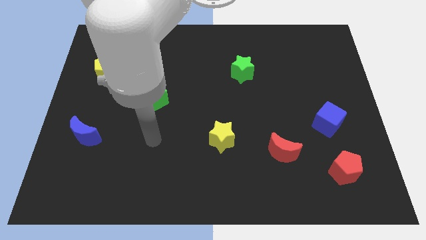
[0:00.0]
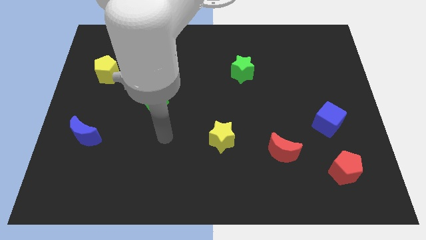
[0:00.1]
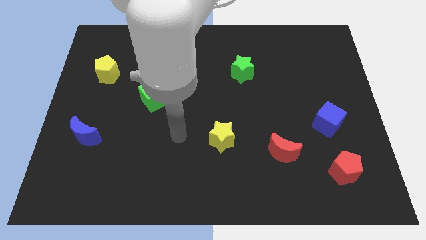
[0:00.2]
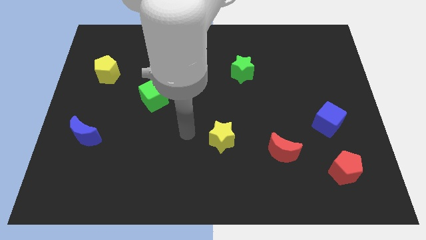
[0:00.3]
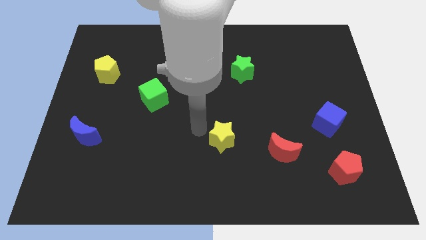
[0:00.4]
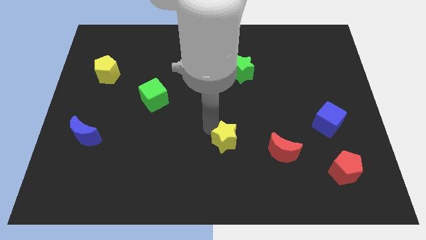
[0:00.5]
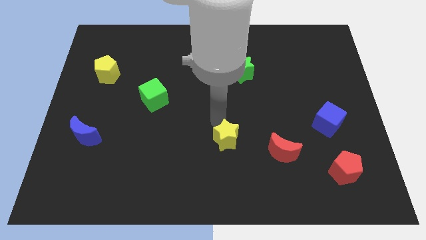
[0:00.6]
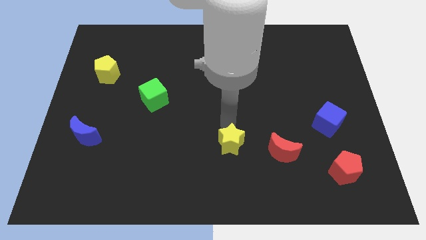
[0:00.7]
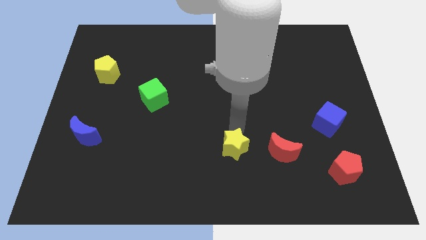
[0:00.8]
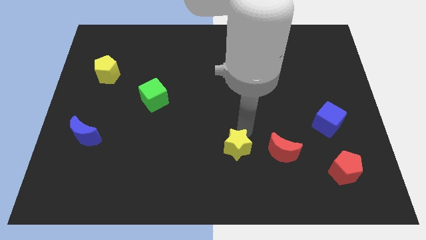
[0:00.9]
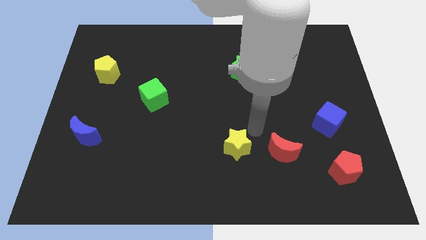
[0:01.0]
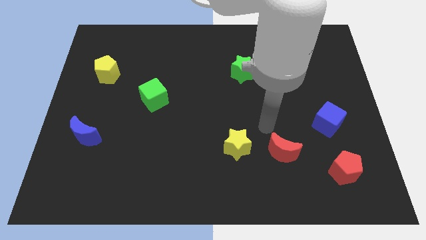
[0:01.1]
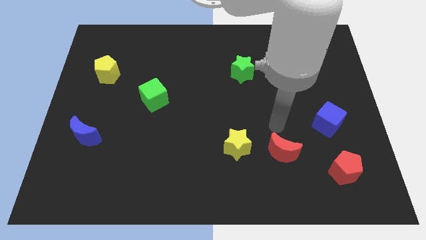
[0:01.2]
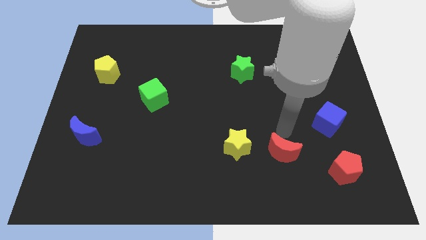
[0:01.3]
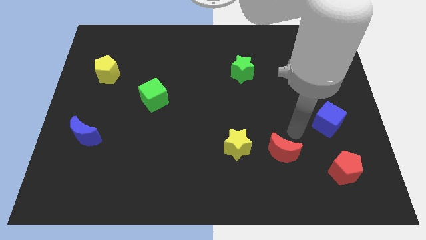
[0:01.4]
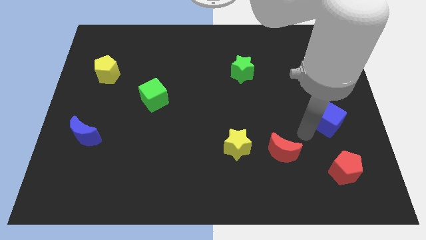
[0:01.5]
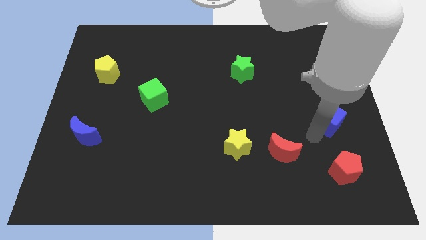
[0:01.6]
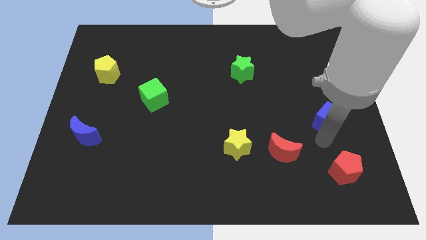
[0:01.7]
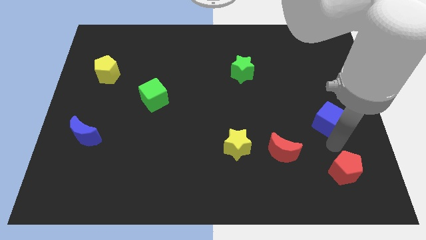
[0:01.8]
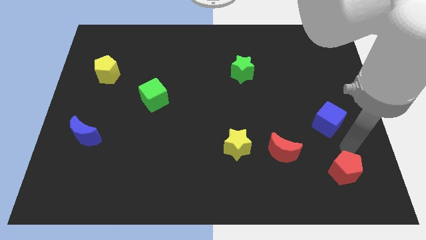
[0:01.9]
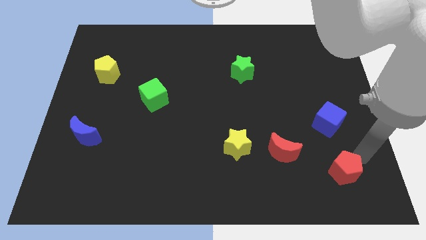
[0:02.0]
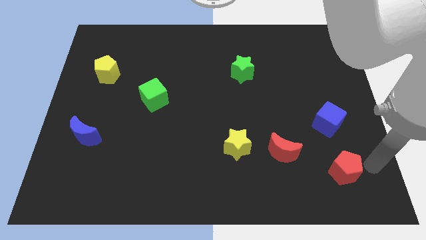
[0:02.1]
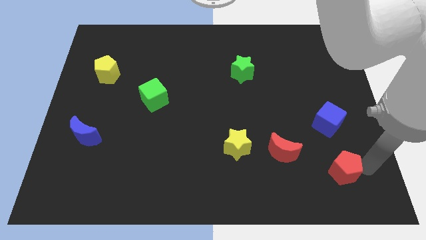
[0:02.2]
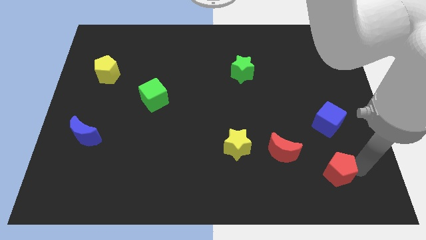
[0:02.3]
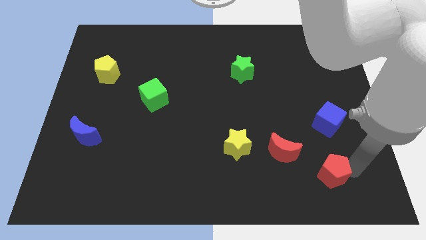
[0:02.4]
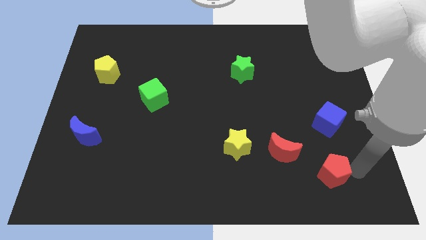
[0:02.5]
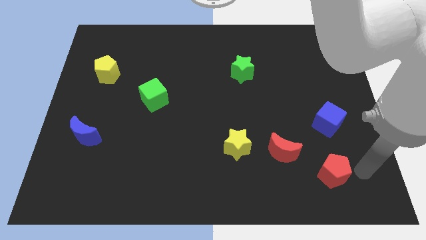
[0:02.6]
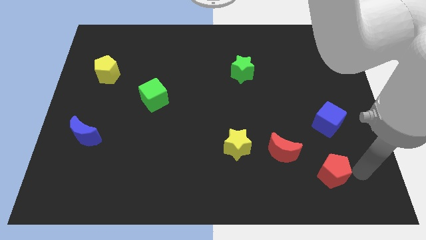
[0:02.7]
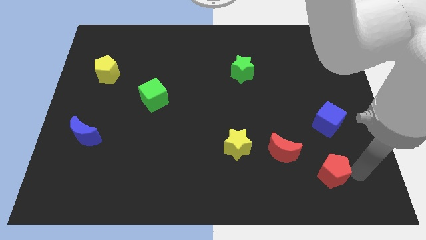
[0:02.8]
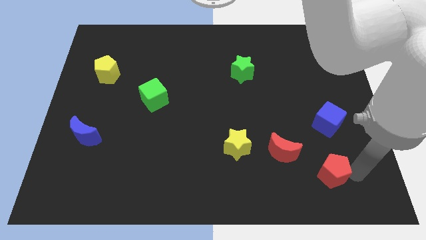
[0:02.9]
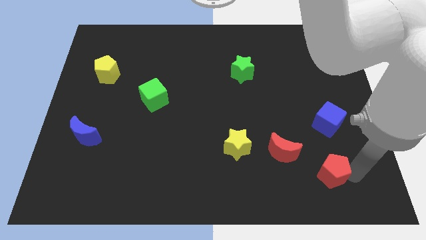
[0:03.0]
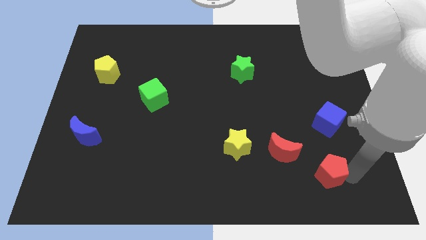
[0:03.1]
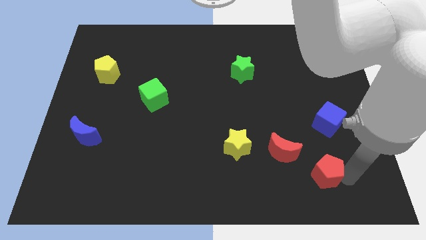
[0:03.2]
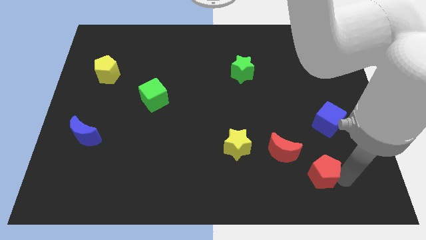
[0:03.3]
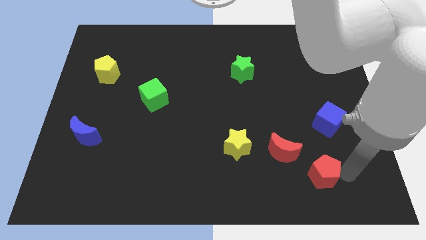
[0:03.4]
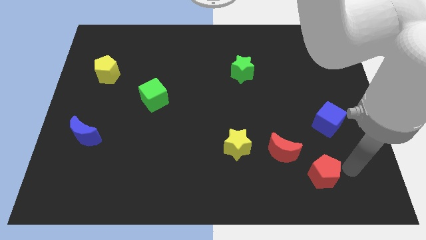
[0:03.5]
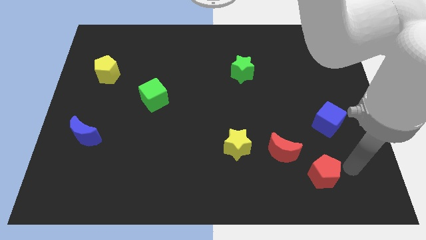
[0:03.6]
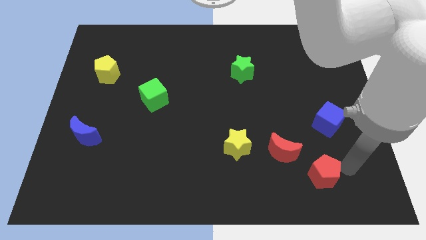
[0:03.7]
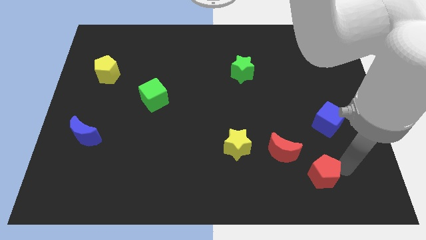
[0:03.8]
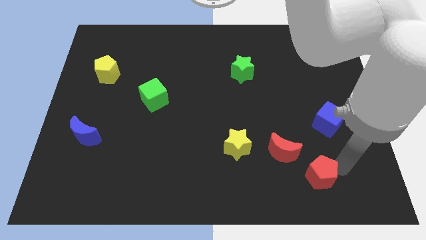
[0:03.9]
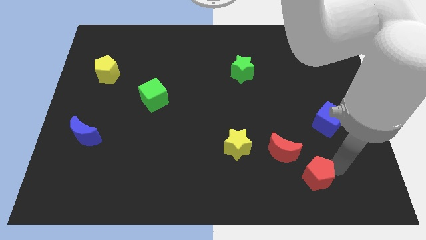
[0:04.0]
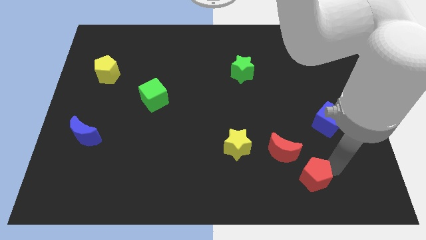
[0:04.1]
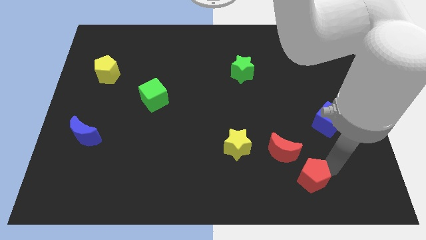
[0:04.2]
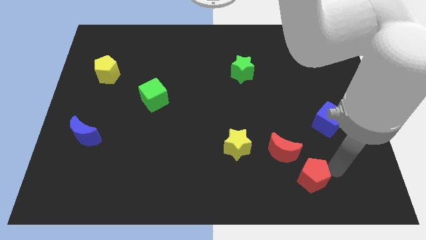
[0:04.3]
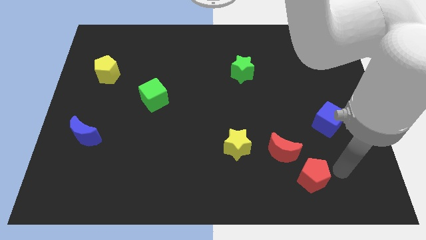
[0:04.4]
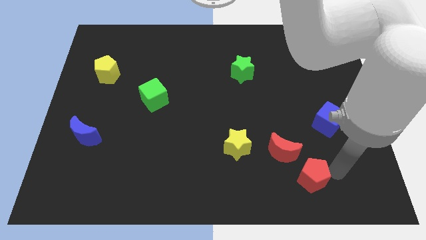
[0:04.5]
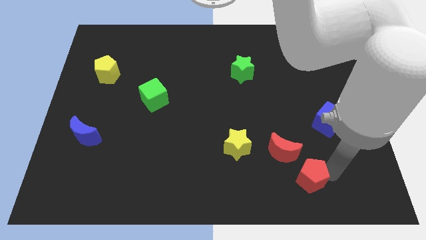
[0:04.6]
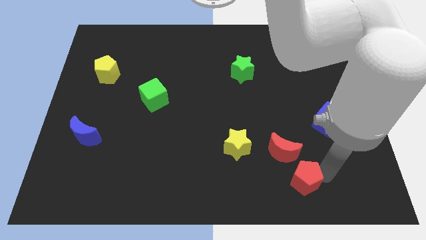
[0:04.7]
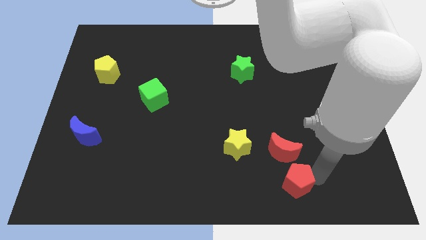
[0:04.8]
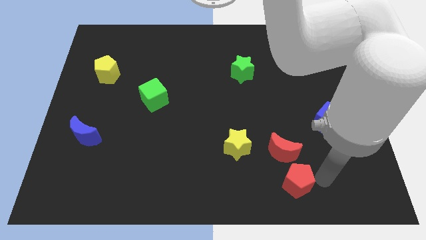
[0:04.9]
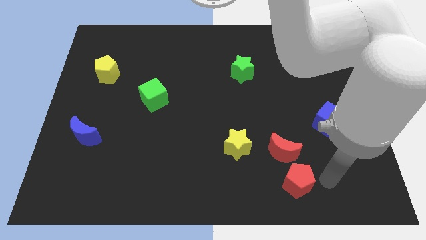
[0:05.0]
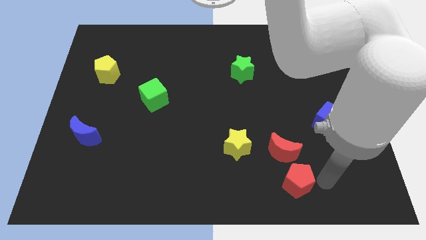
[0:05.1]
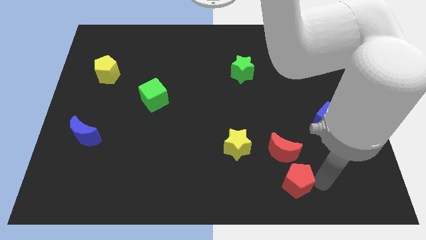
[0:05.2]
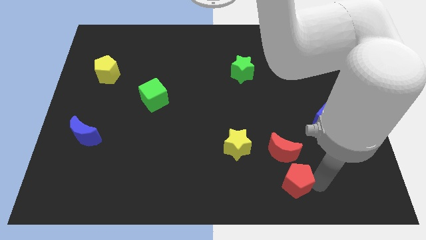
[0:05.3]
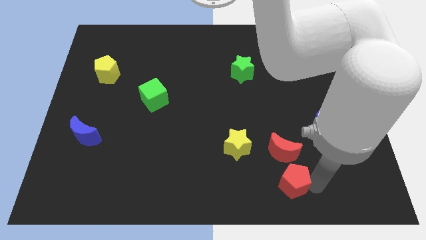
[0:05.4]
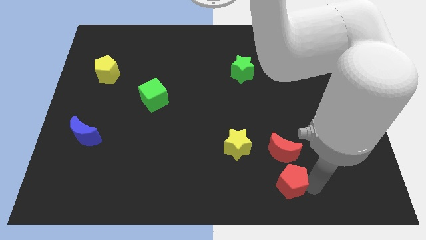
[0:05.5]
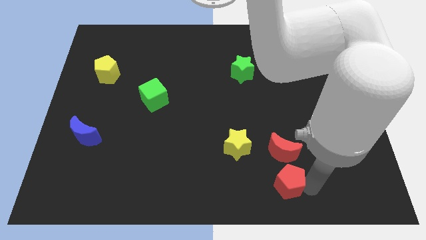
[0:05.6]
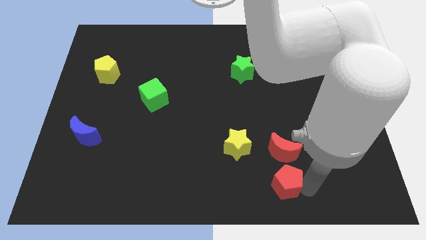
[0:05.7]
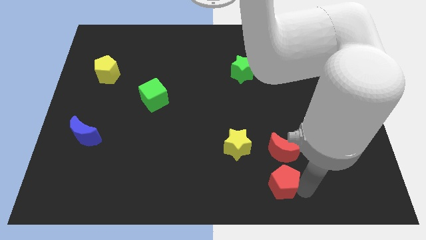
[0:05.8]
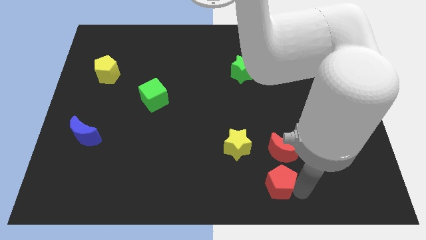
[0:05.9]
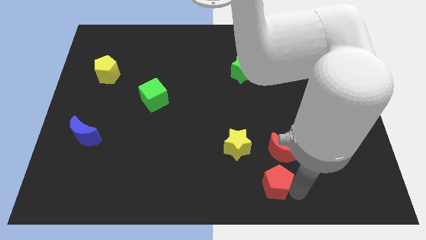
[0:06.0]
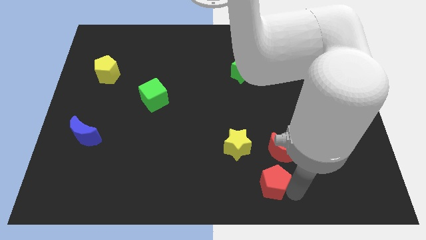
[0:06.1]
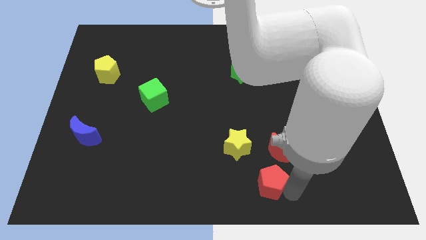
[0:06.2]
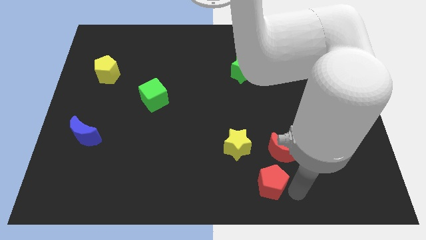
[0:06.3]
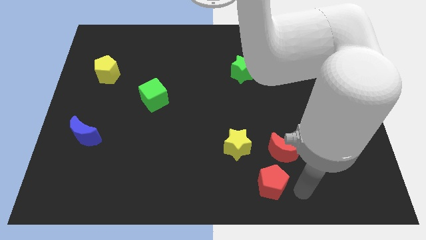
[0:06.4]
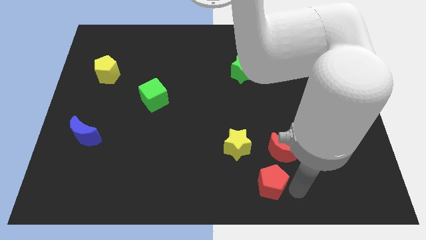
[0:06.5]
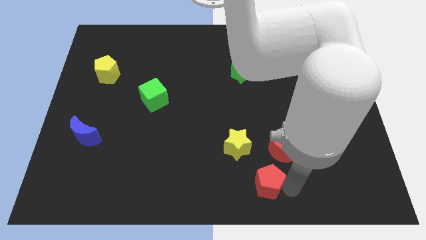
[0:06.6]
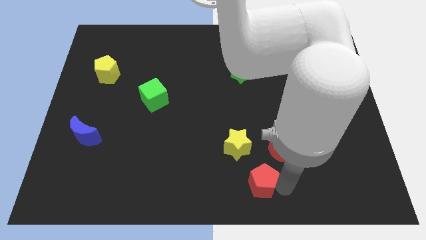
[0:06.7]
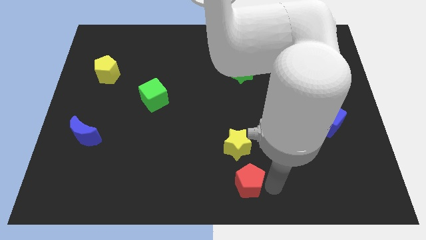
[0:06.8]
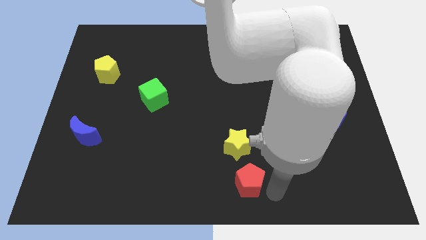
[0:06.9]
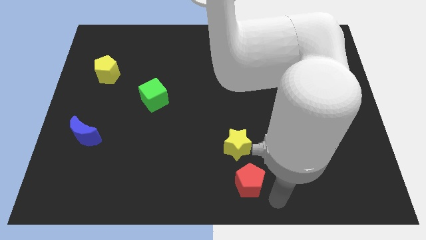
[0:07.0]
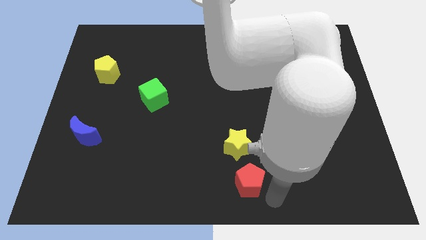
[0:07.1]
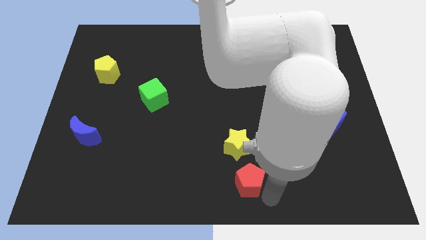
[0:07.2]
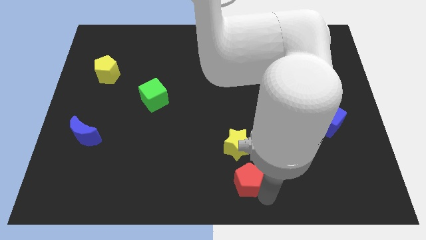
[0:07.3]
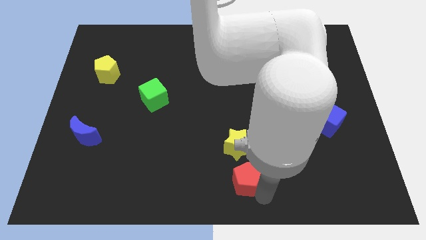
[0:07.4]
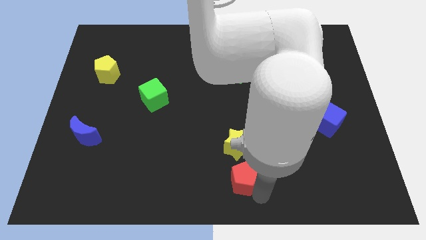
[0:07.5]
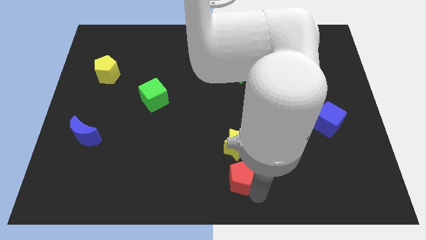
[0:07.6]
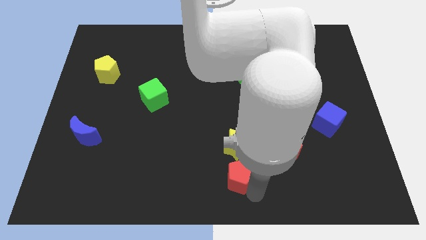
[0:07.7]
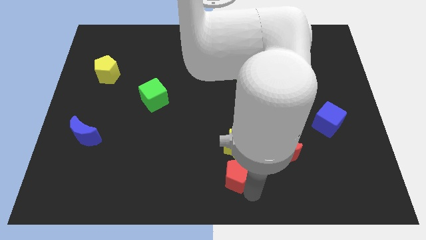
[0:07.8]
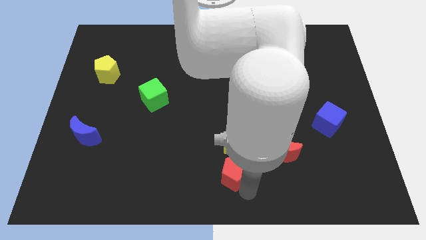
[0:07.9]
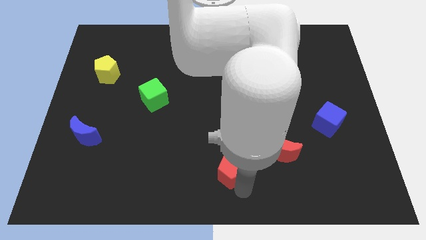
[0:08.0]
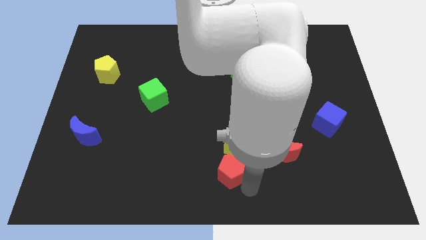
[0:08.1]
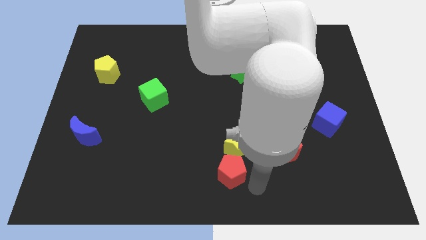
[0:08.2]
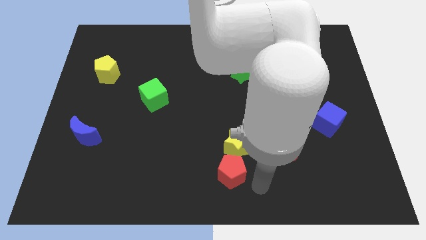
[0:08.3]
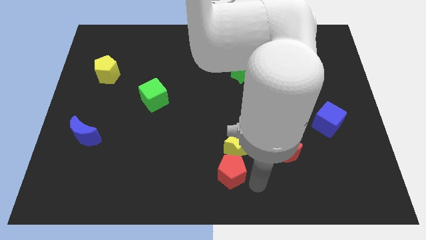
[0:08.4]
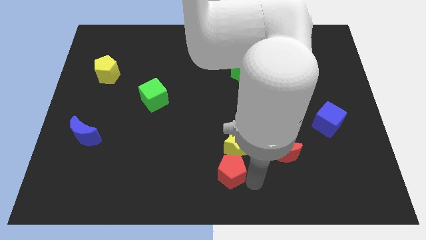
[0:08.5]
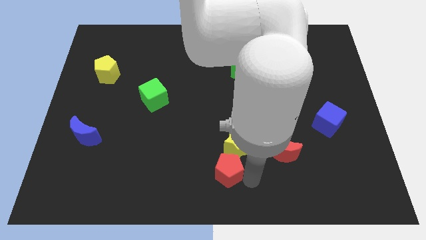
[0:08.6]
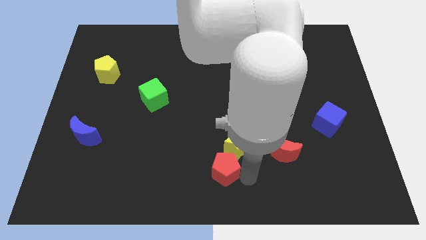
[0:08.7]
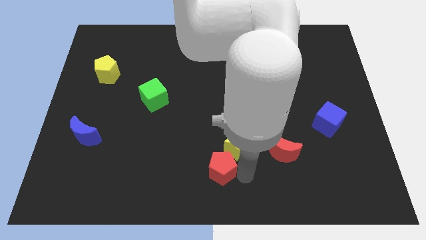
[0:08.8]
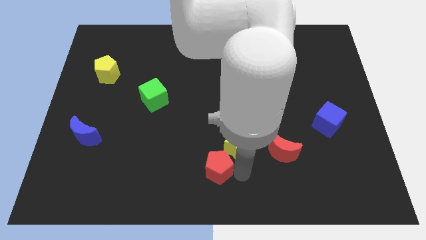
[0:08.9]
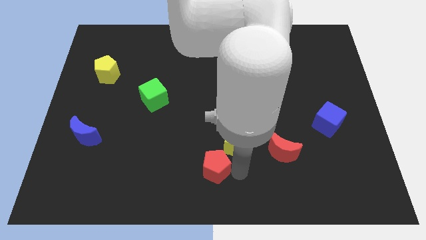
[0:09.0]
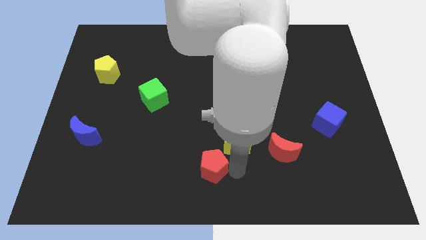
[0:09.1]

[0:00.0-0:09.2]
slide the red pentagon to the left side of the yellow star
